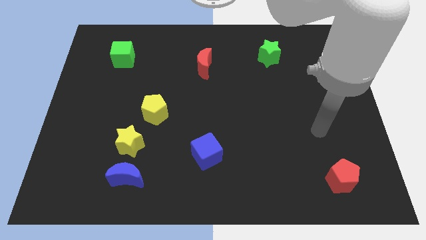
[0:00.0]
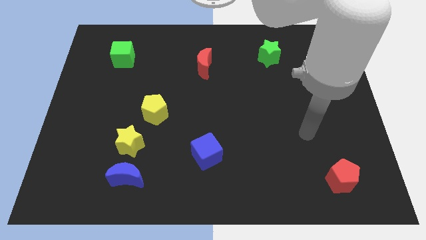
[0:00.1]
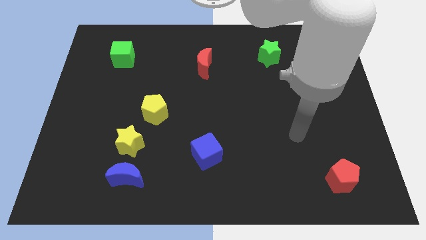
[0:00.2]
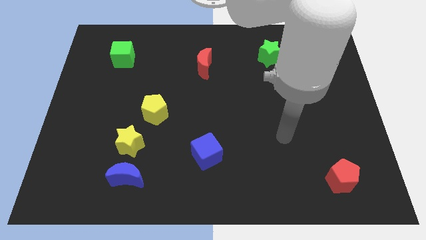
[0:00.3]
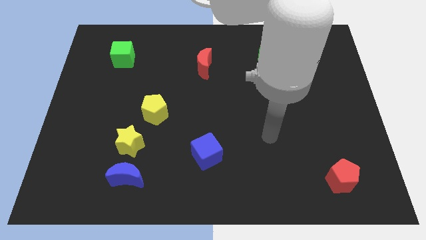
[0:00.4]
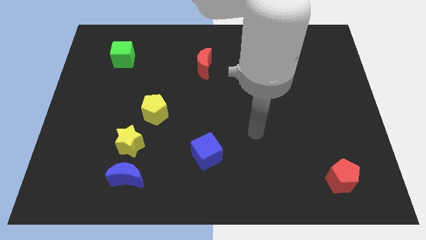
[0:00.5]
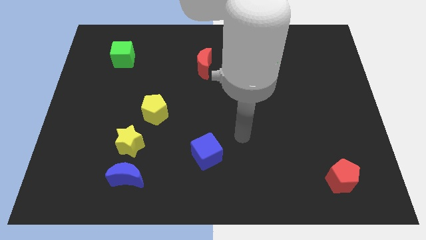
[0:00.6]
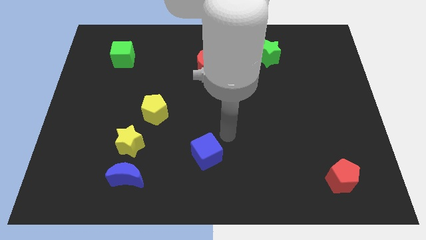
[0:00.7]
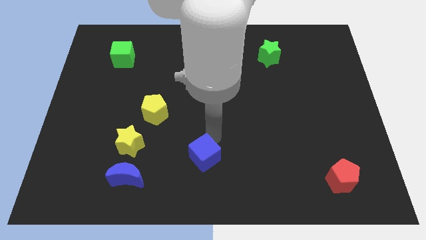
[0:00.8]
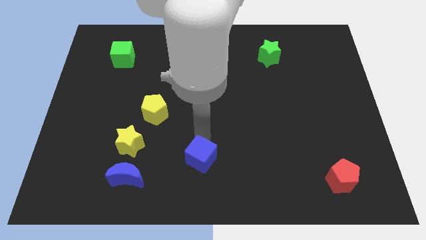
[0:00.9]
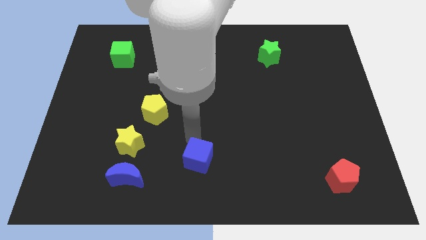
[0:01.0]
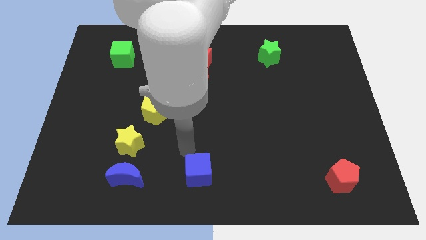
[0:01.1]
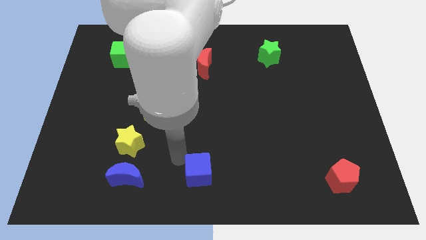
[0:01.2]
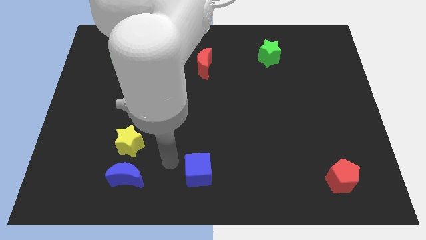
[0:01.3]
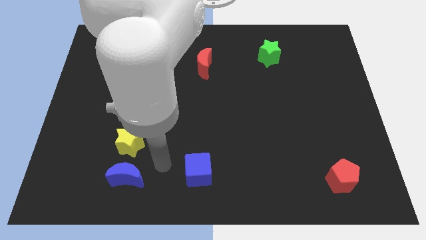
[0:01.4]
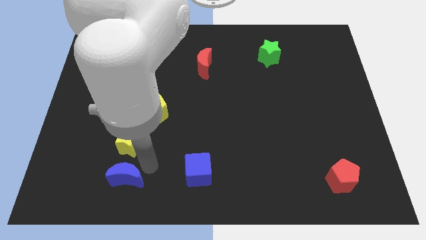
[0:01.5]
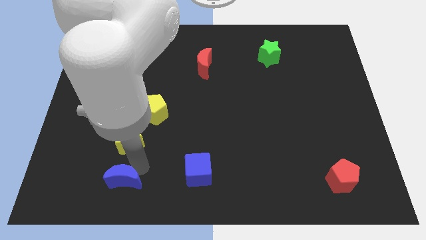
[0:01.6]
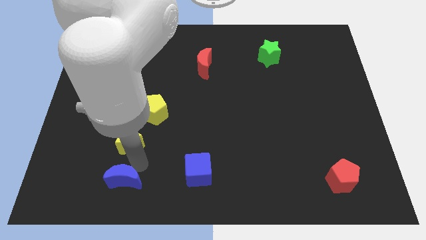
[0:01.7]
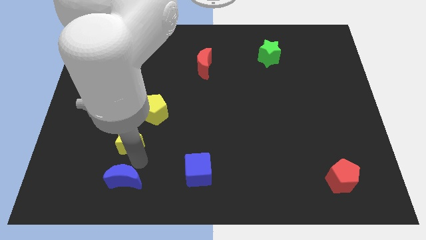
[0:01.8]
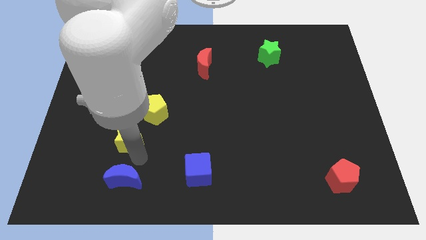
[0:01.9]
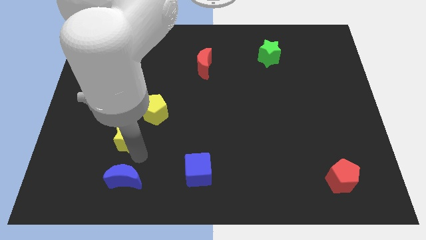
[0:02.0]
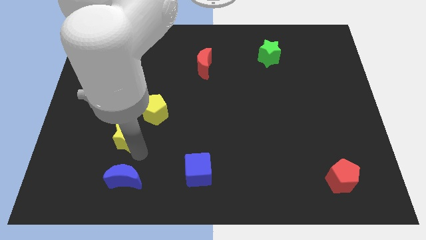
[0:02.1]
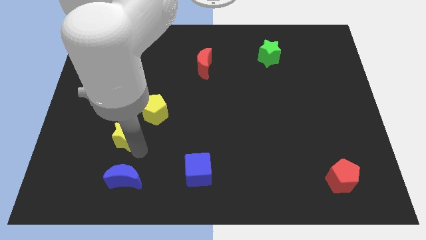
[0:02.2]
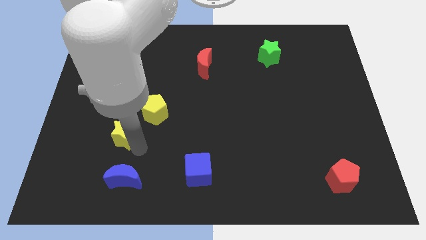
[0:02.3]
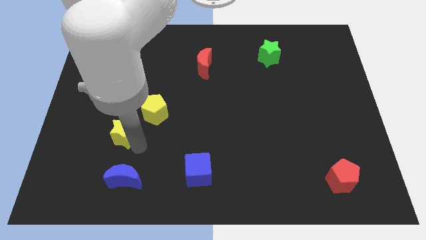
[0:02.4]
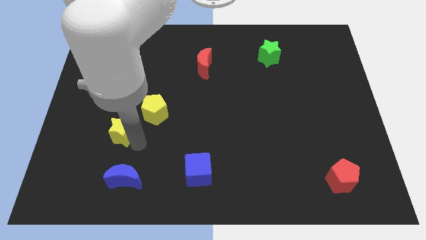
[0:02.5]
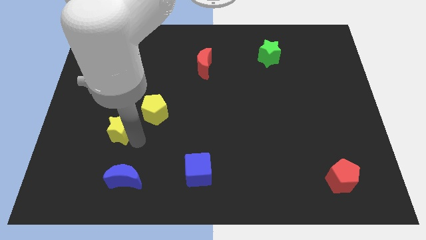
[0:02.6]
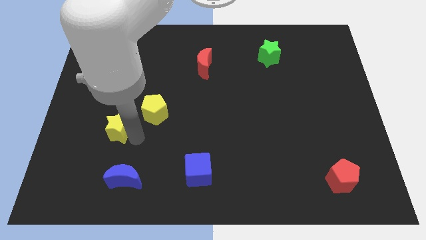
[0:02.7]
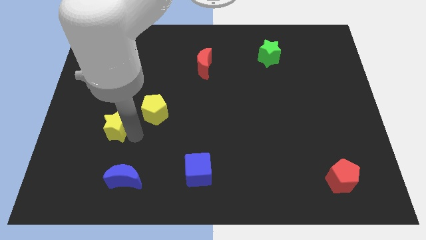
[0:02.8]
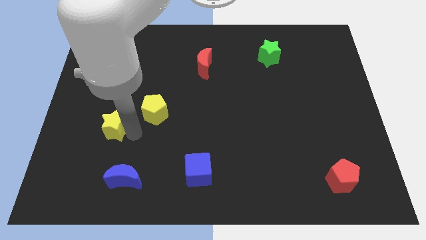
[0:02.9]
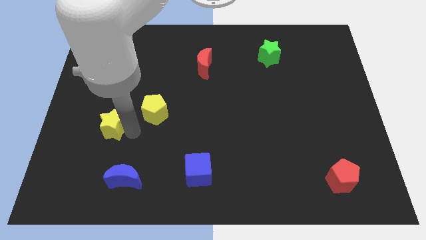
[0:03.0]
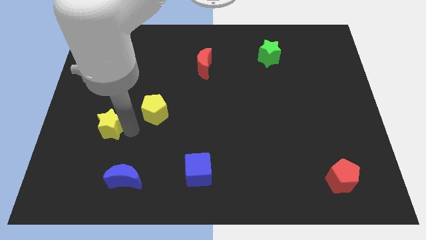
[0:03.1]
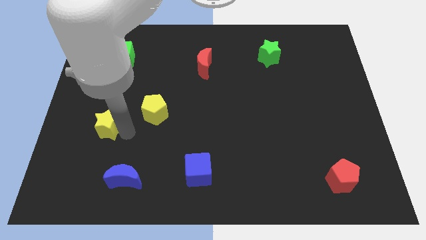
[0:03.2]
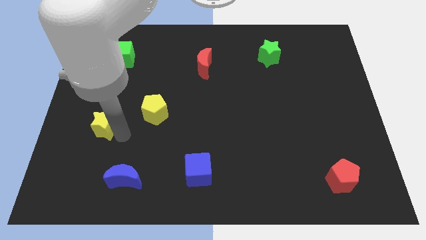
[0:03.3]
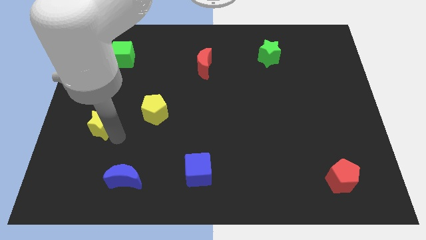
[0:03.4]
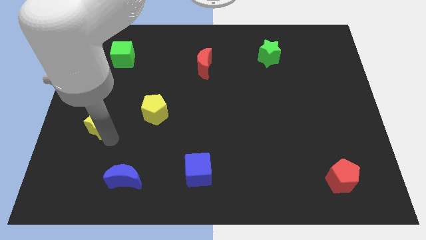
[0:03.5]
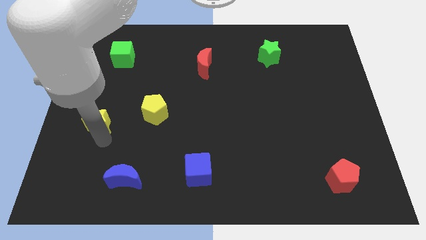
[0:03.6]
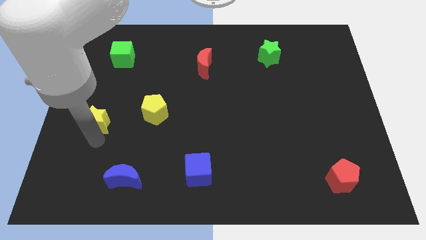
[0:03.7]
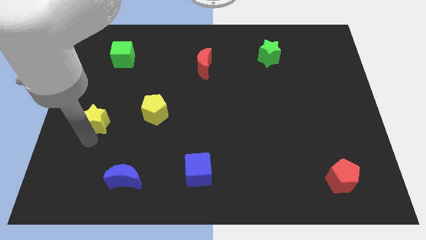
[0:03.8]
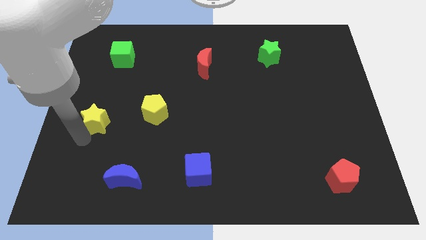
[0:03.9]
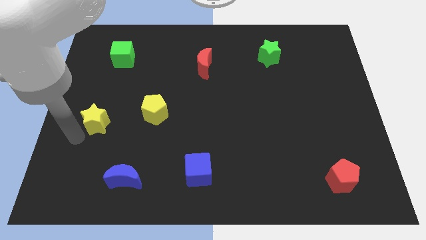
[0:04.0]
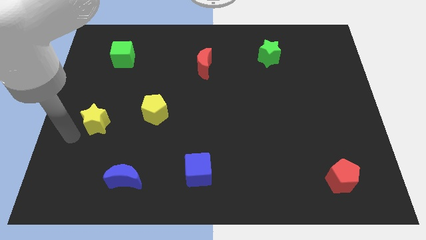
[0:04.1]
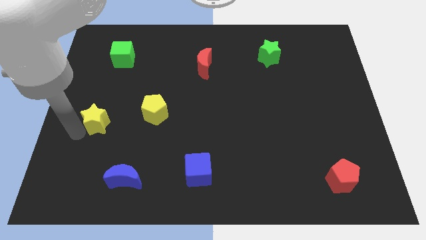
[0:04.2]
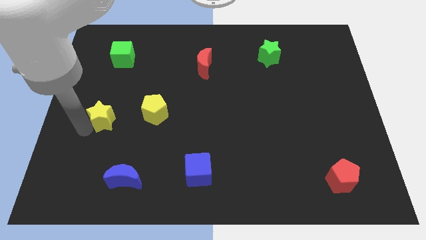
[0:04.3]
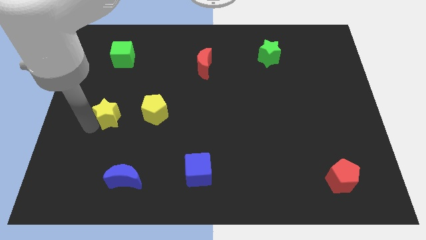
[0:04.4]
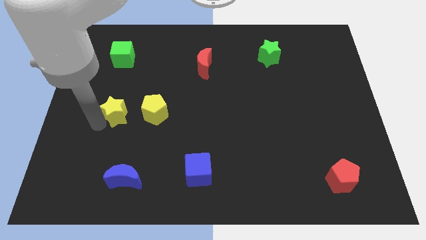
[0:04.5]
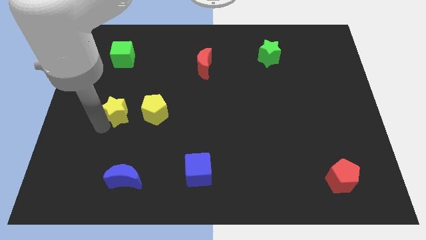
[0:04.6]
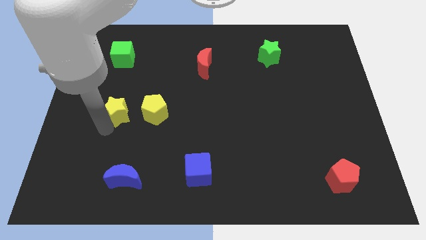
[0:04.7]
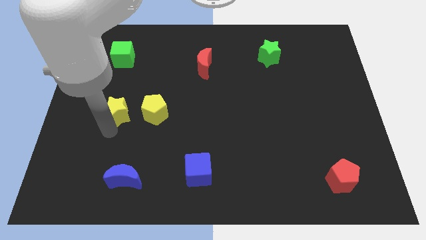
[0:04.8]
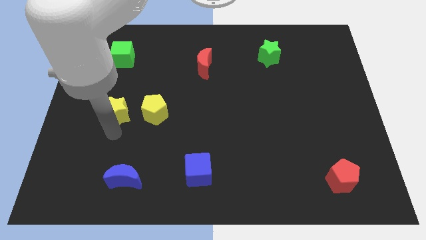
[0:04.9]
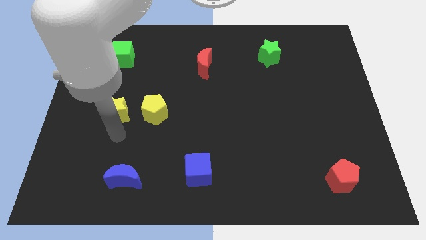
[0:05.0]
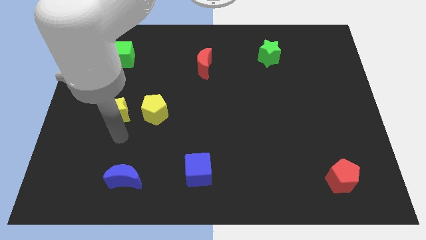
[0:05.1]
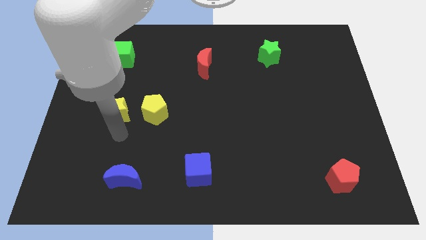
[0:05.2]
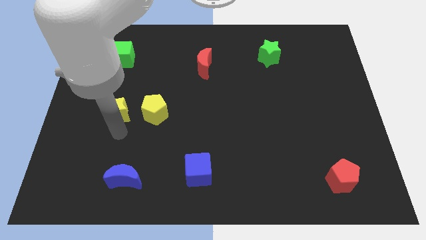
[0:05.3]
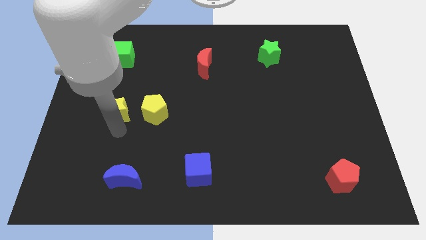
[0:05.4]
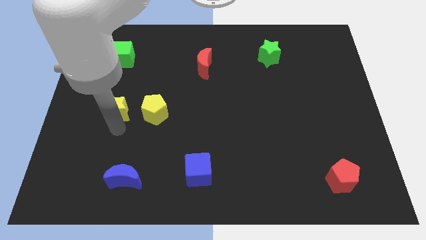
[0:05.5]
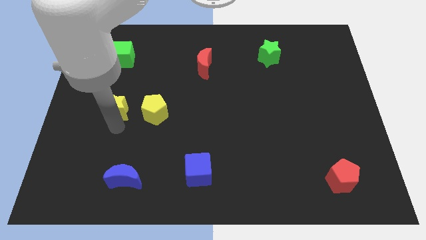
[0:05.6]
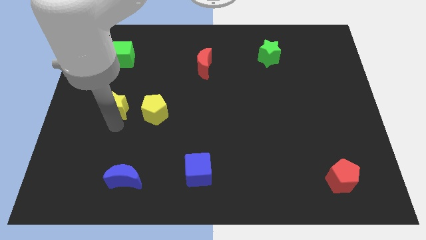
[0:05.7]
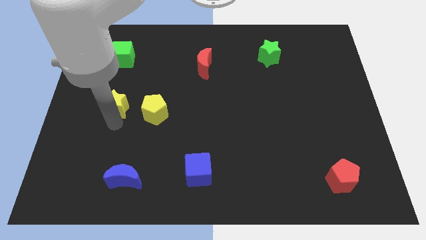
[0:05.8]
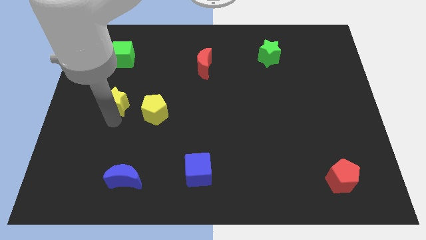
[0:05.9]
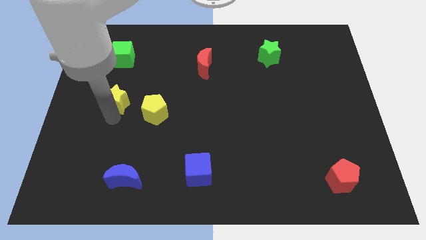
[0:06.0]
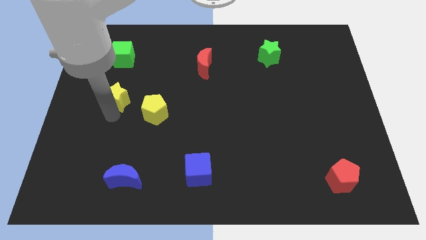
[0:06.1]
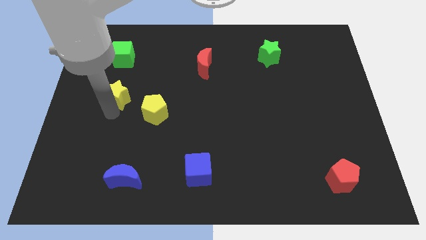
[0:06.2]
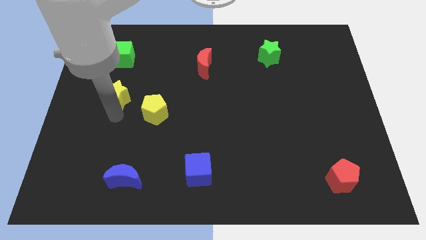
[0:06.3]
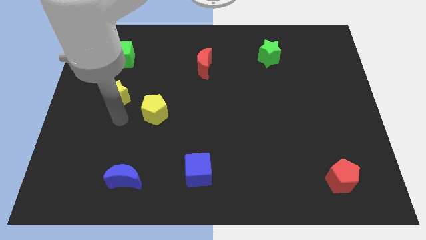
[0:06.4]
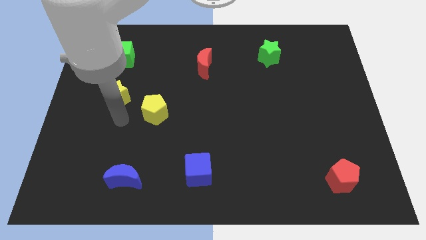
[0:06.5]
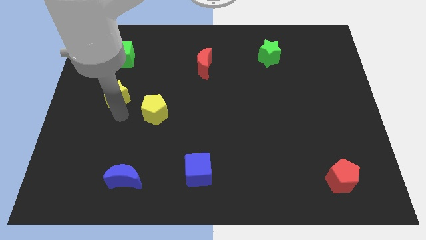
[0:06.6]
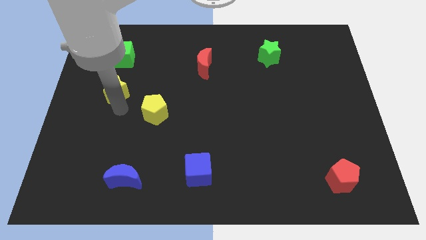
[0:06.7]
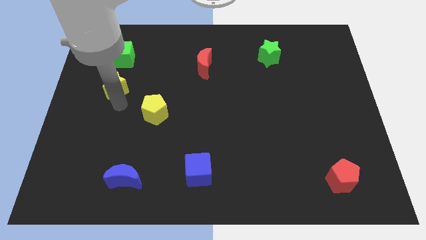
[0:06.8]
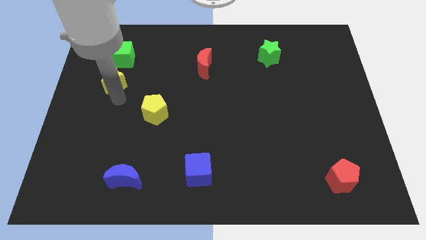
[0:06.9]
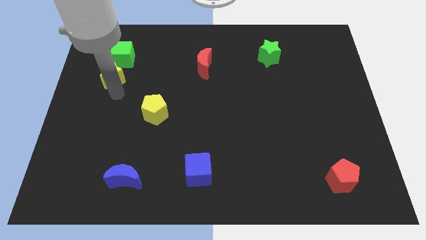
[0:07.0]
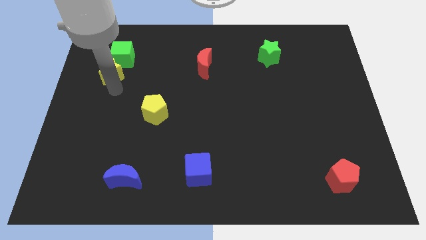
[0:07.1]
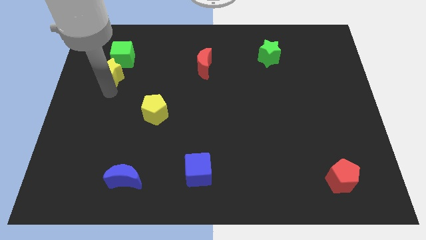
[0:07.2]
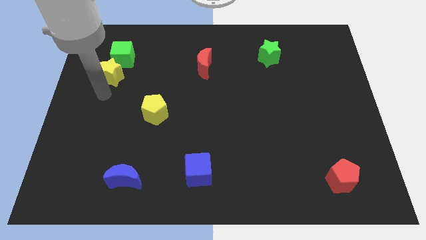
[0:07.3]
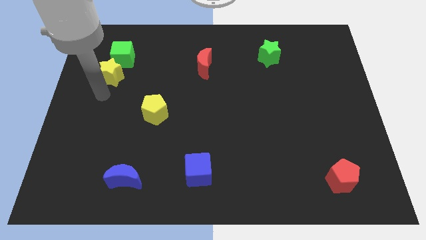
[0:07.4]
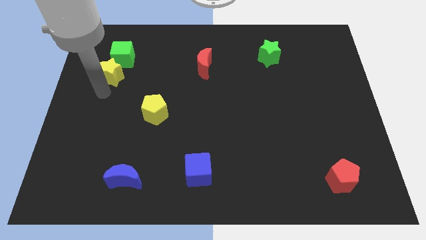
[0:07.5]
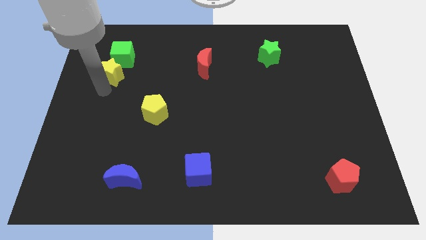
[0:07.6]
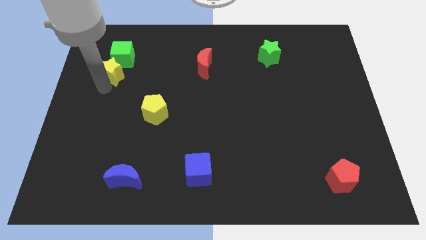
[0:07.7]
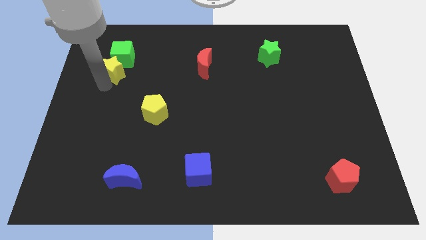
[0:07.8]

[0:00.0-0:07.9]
slide the yellow star close to the green cube

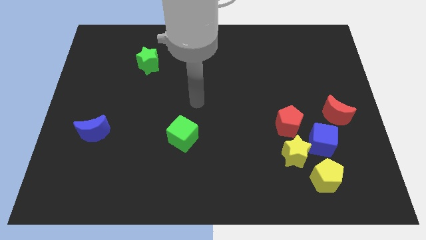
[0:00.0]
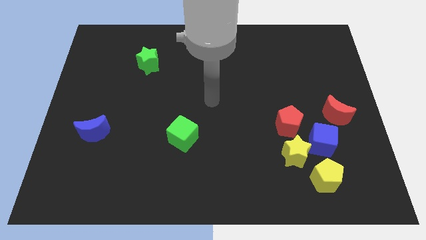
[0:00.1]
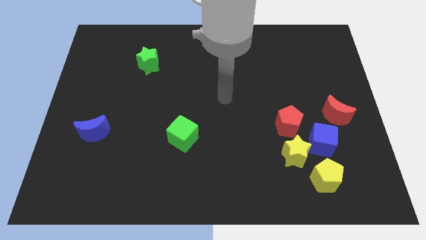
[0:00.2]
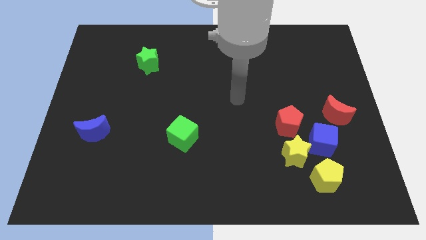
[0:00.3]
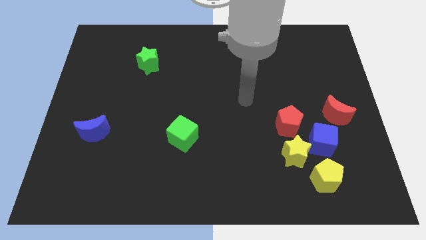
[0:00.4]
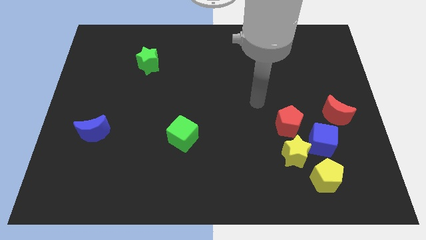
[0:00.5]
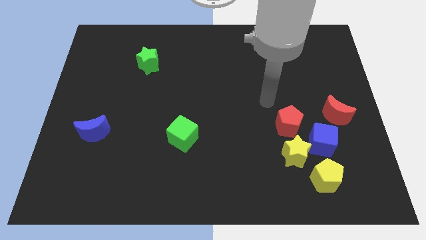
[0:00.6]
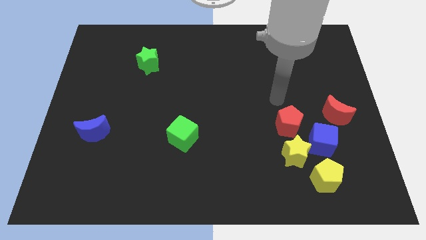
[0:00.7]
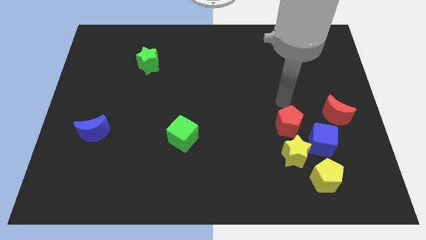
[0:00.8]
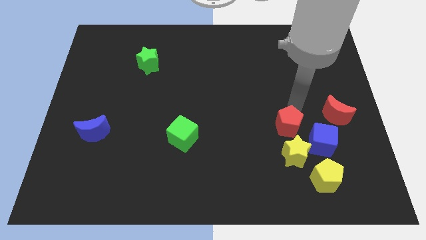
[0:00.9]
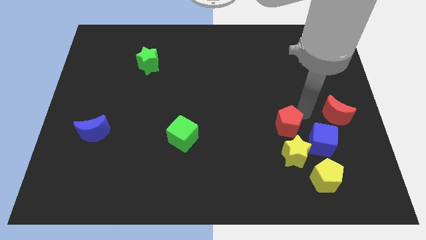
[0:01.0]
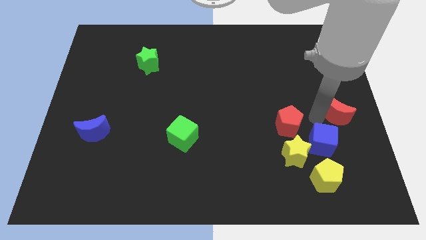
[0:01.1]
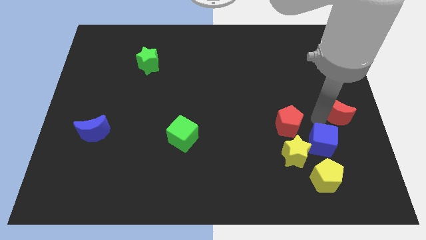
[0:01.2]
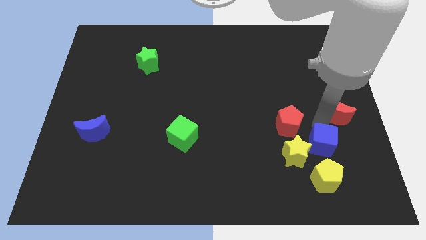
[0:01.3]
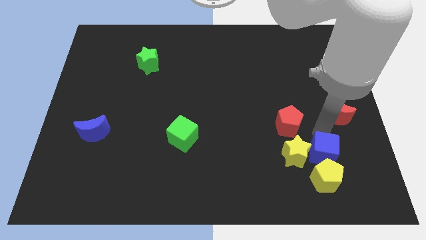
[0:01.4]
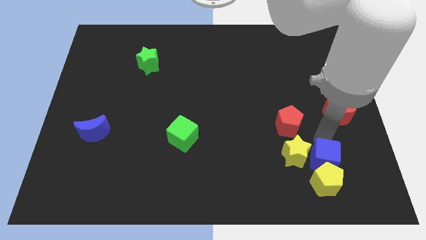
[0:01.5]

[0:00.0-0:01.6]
push the blue cube towards the yellow pentagon
